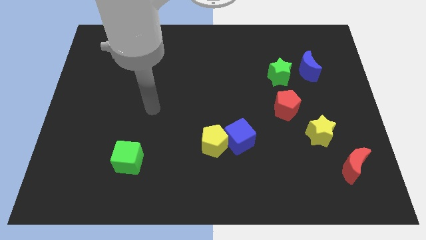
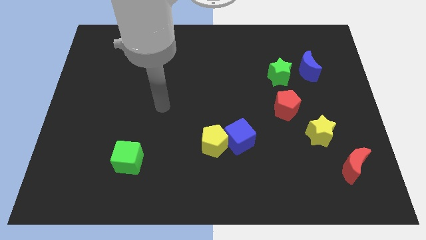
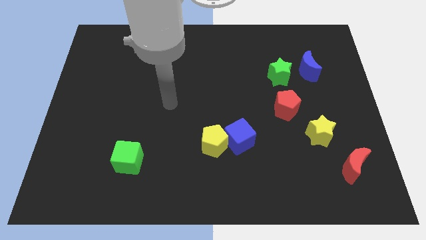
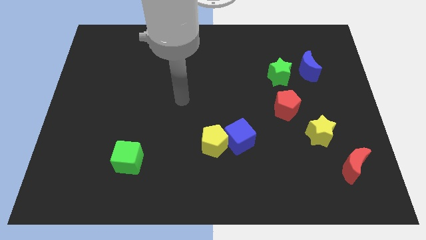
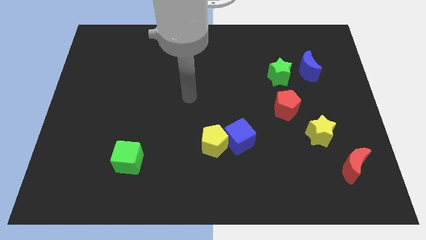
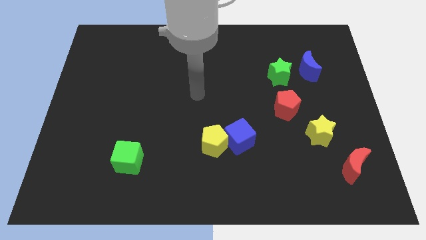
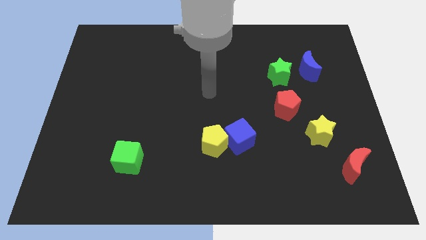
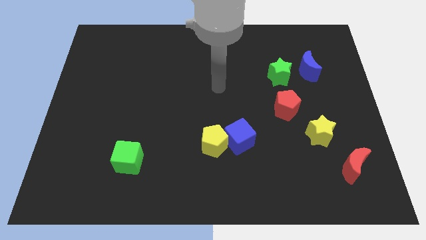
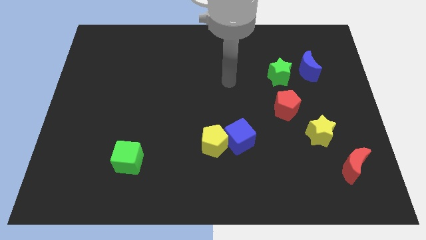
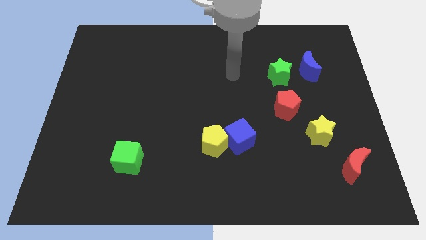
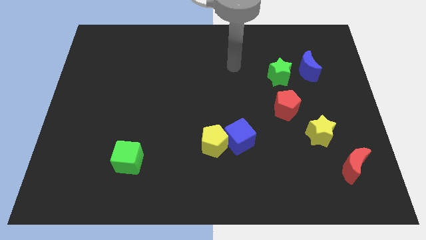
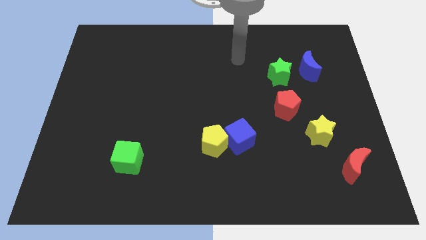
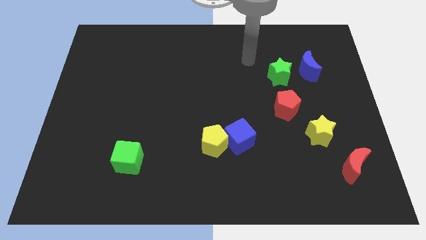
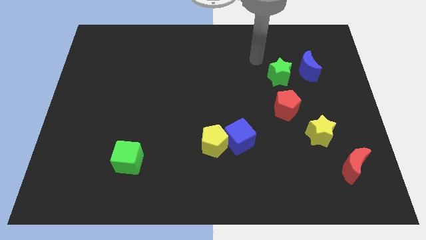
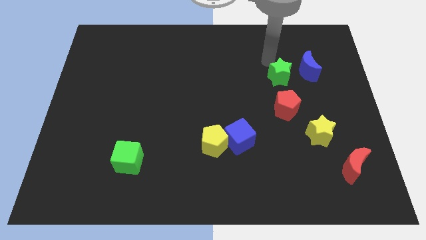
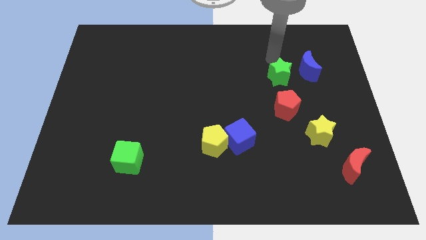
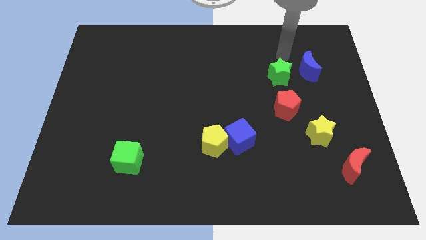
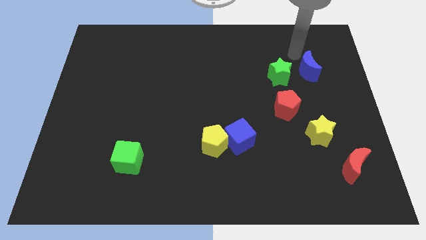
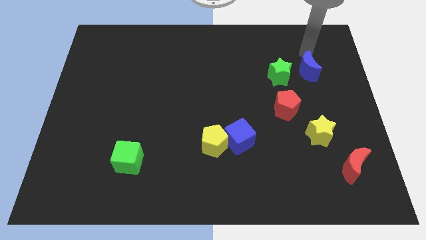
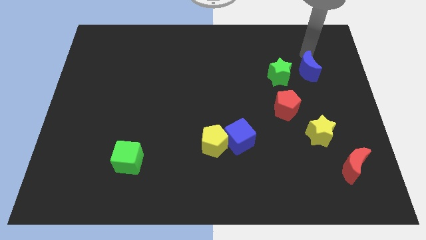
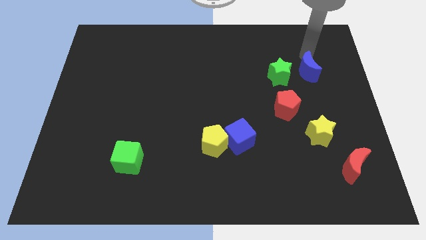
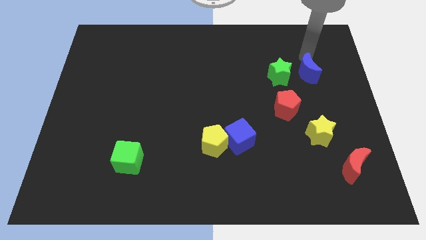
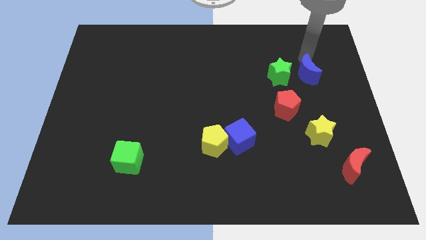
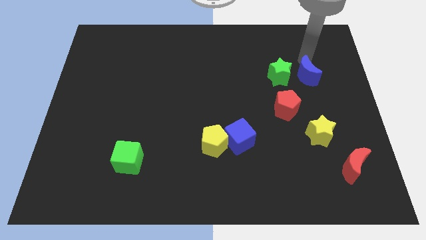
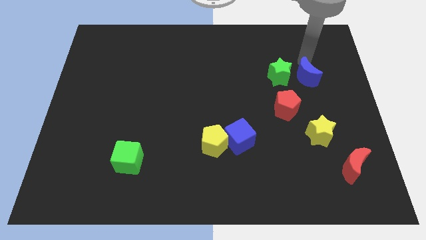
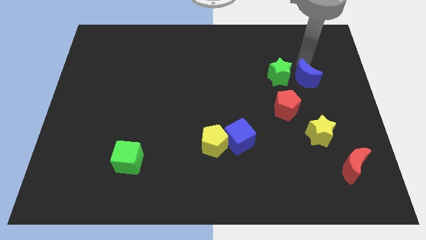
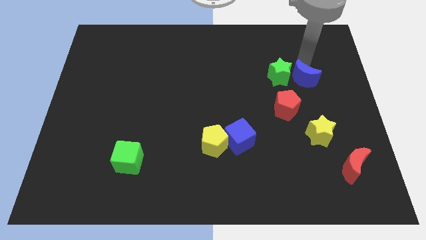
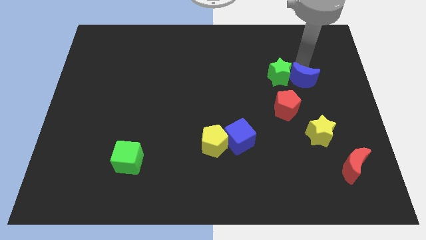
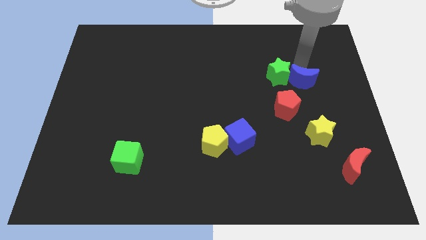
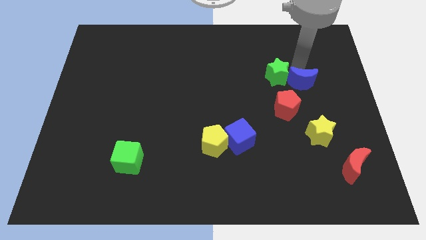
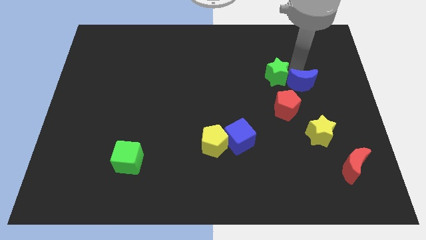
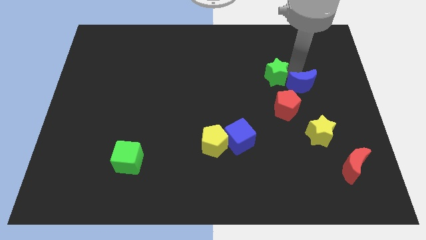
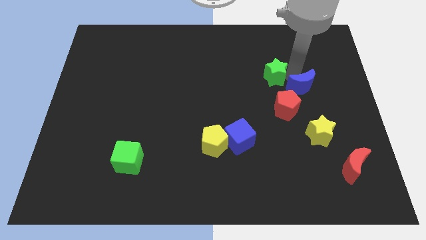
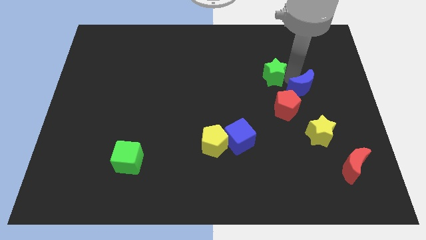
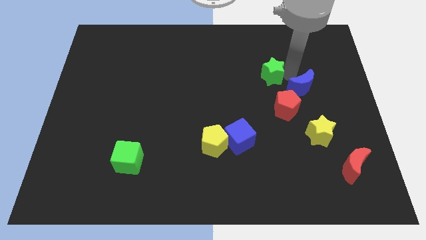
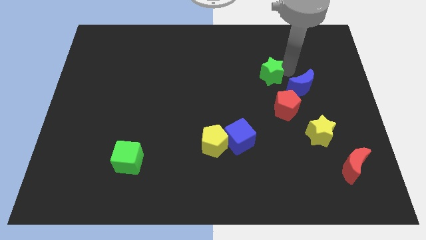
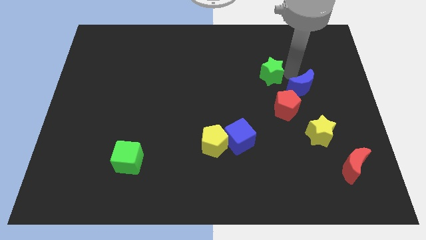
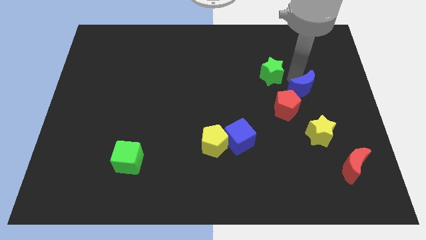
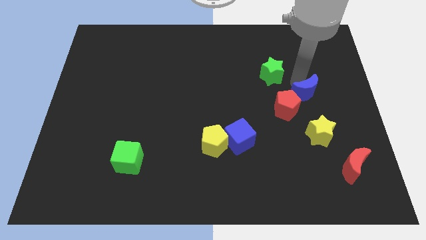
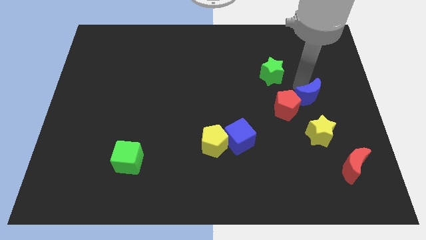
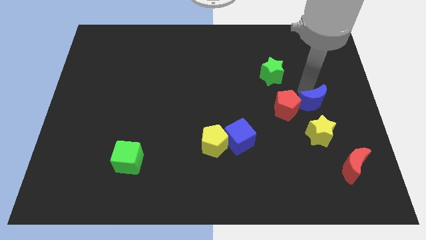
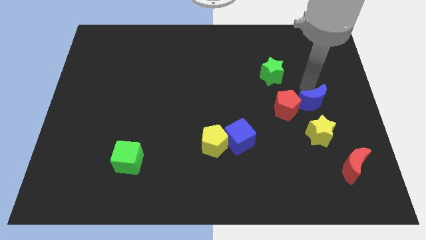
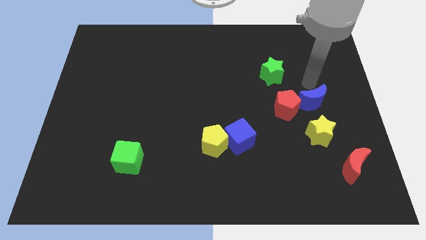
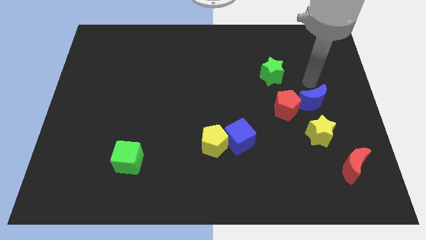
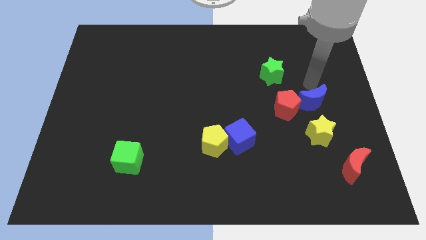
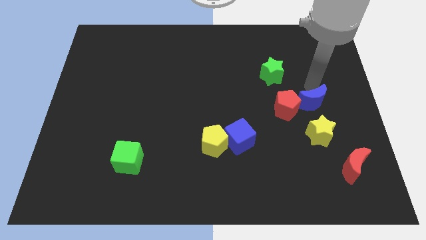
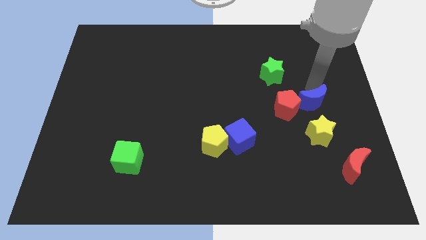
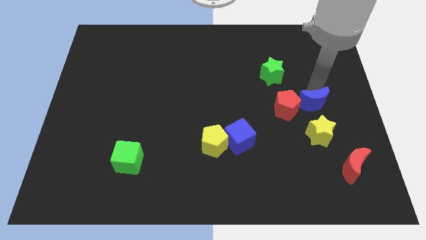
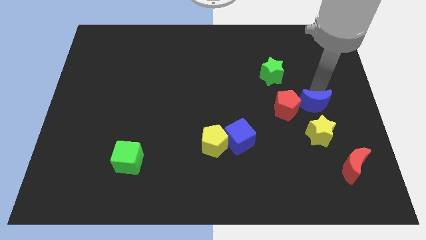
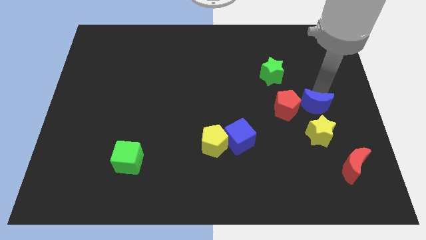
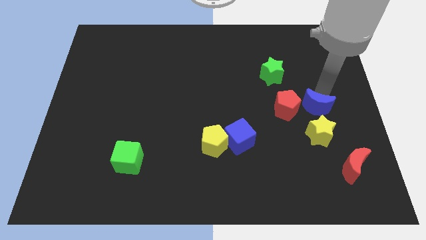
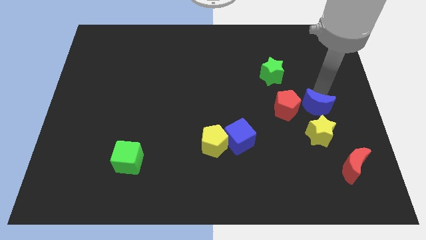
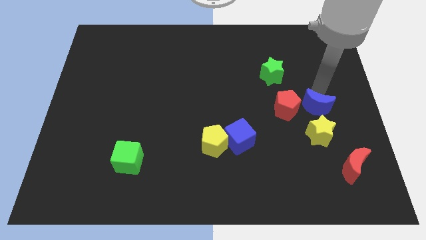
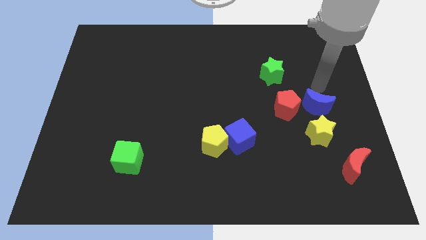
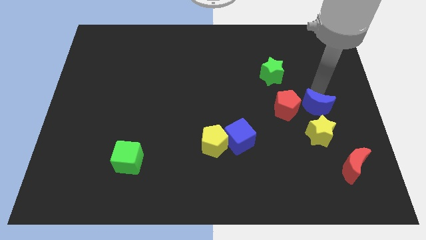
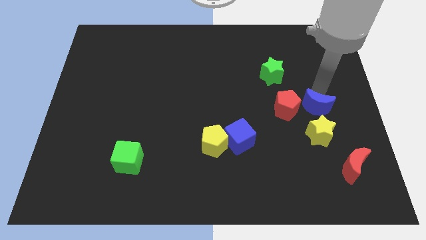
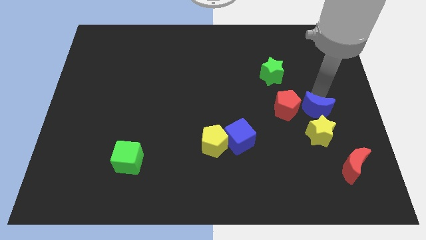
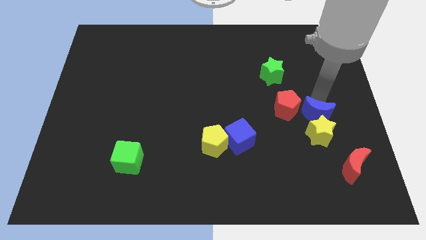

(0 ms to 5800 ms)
put the blue moon to the yellow star

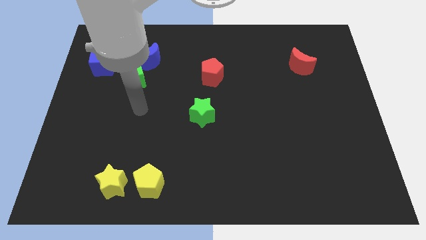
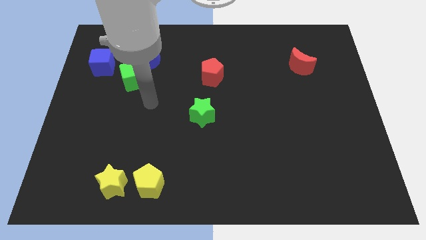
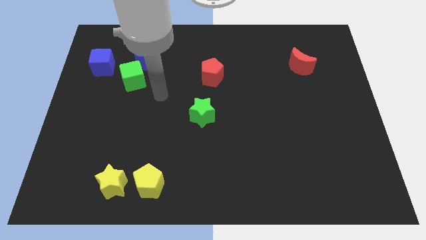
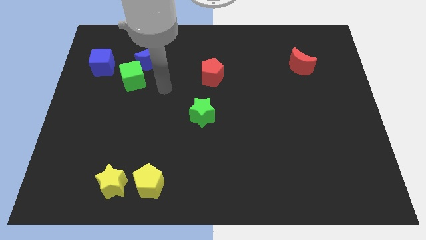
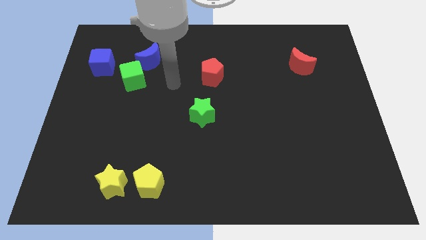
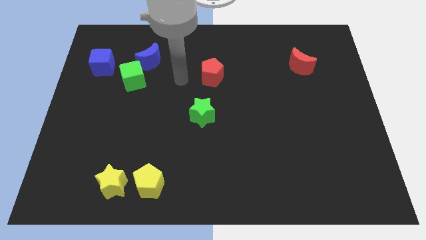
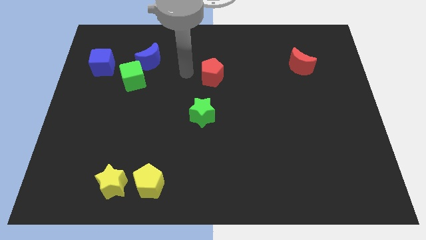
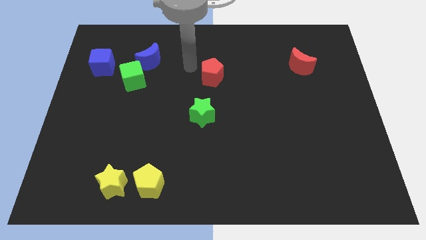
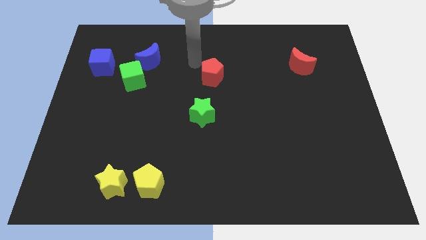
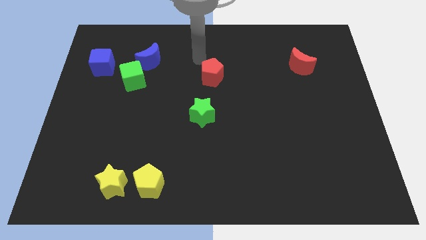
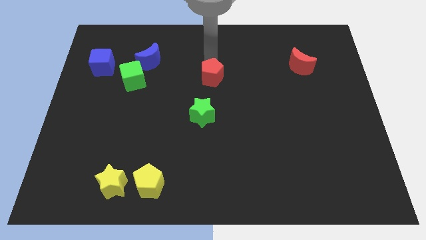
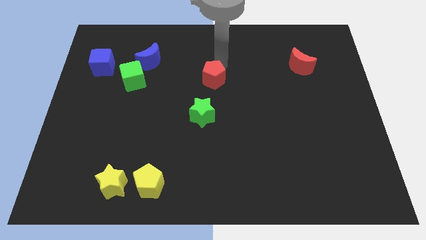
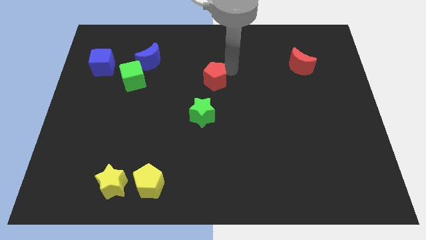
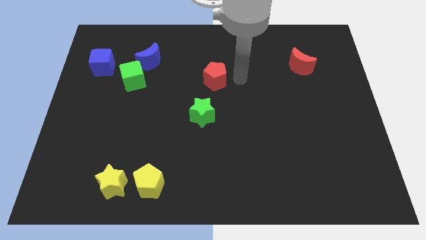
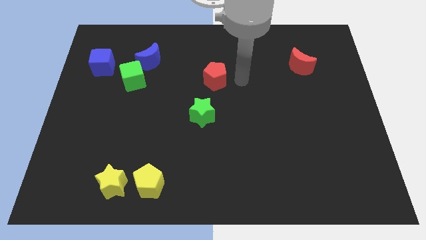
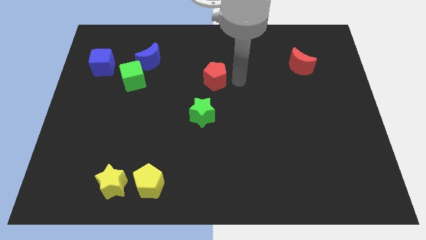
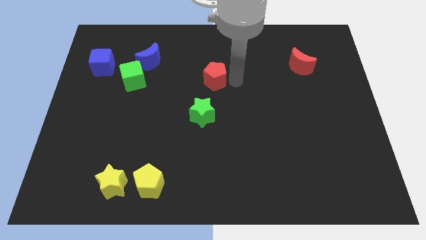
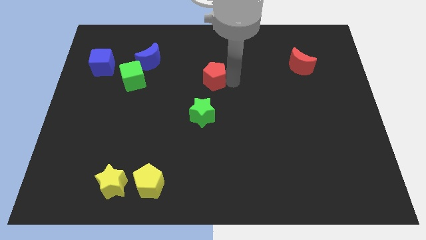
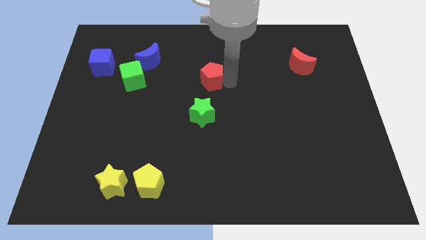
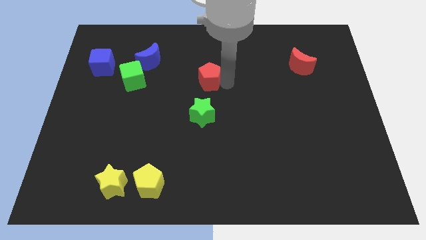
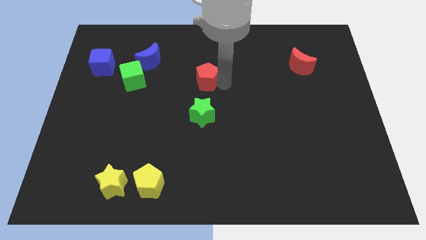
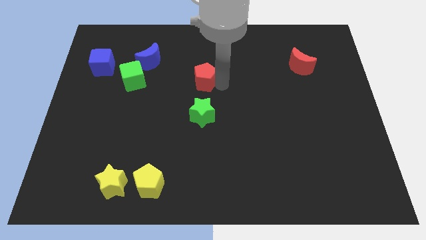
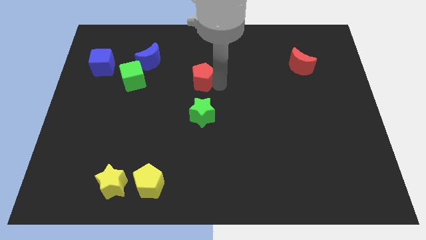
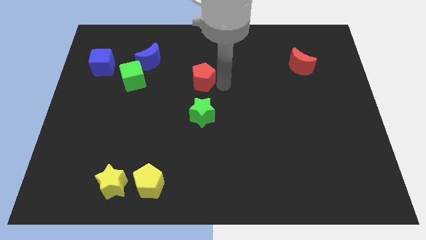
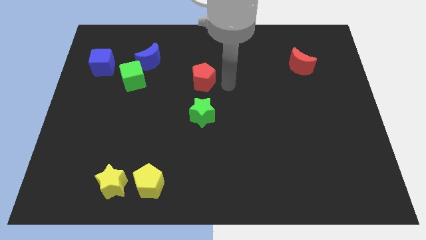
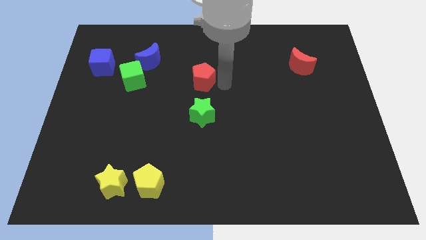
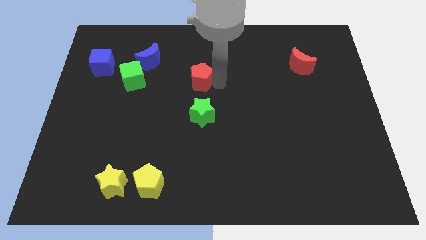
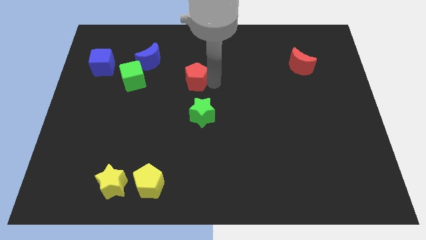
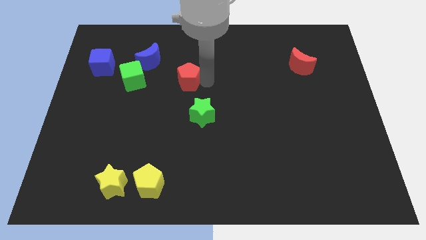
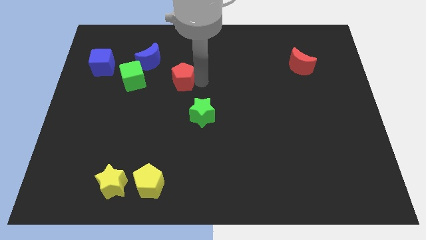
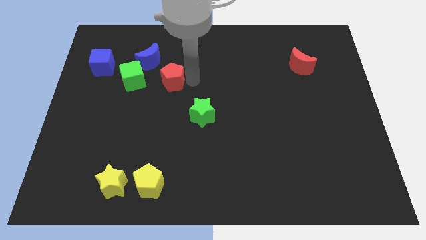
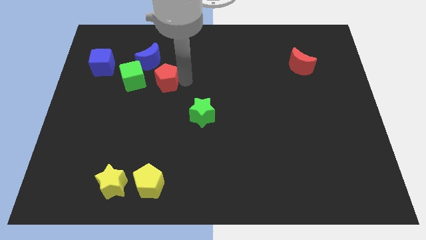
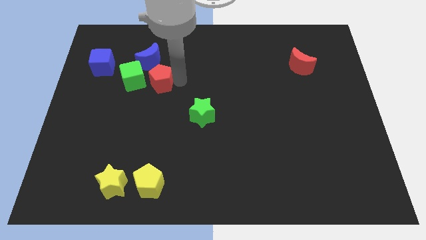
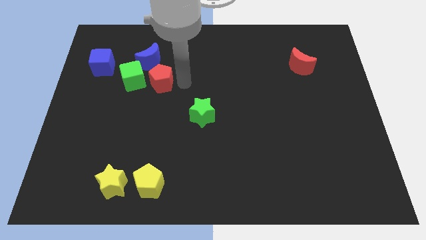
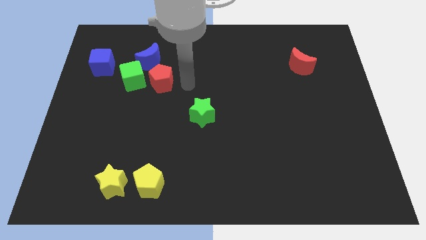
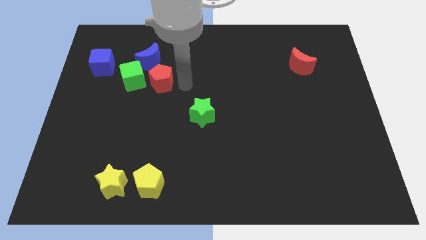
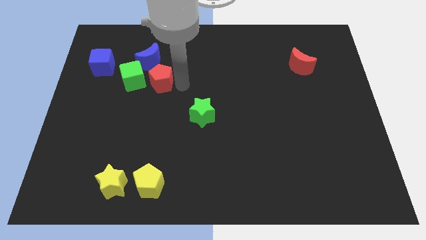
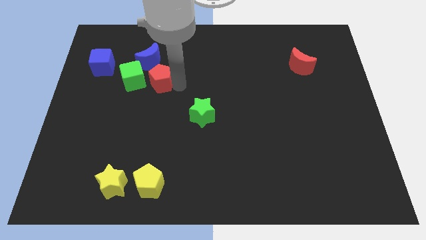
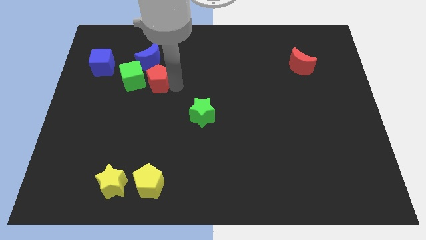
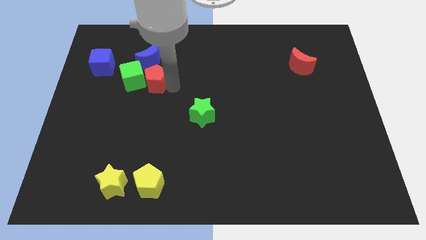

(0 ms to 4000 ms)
push the red pentagon to the green cube
